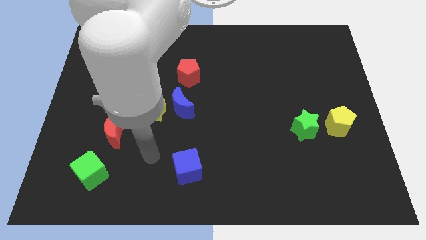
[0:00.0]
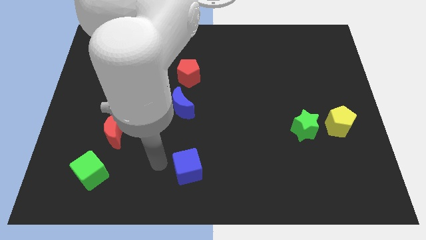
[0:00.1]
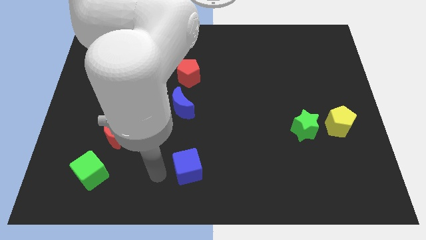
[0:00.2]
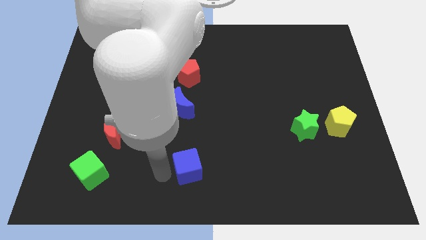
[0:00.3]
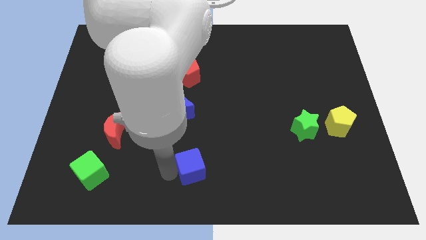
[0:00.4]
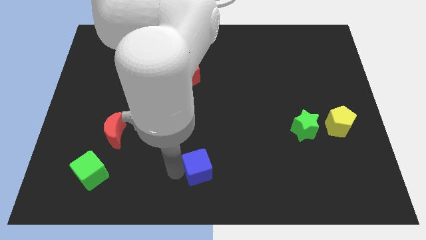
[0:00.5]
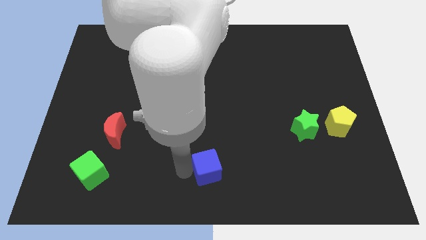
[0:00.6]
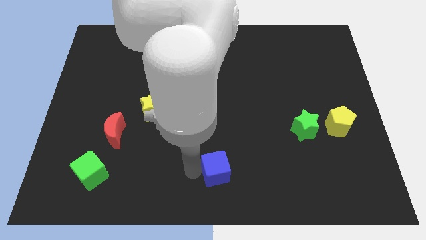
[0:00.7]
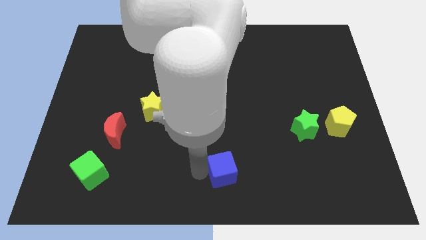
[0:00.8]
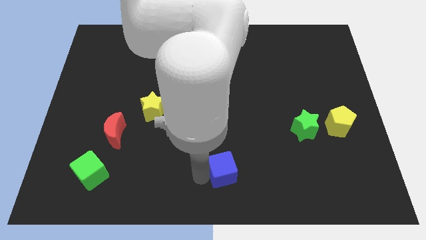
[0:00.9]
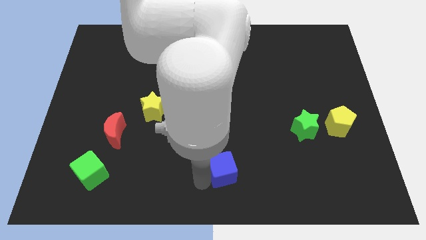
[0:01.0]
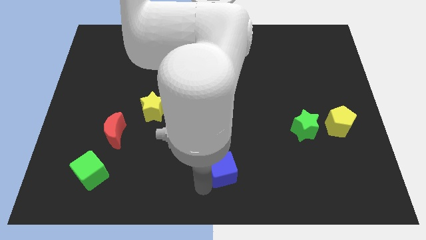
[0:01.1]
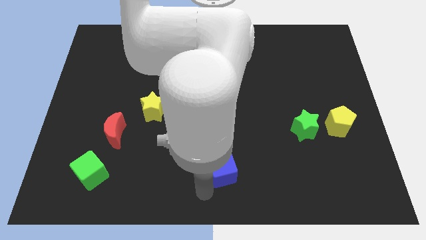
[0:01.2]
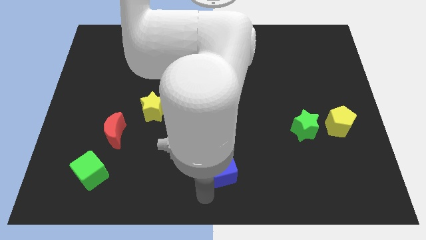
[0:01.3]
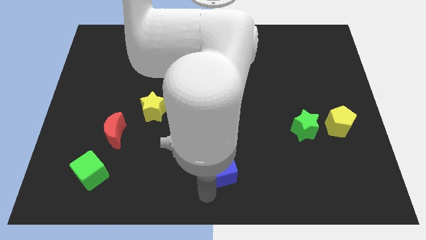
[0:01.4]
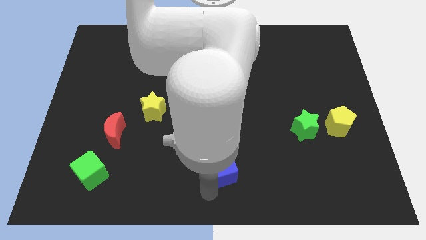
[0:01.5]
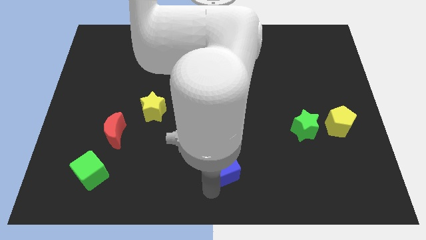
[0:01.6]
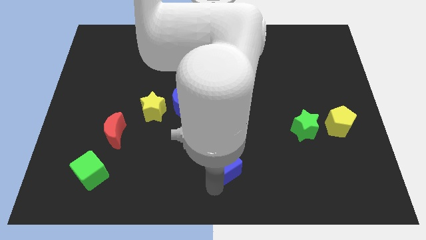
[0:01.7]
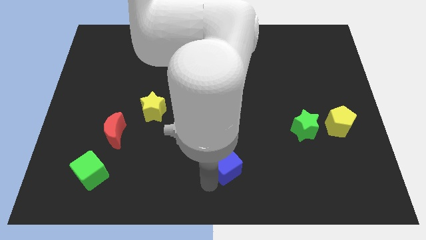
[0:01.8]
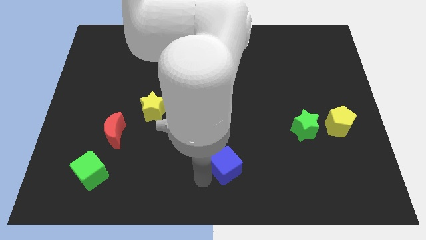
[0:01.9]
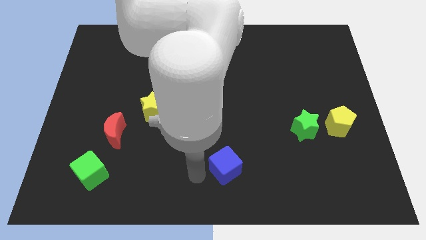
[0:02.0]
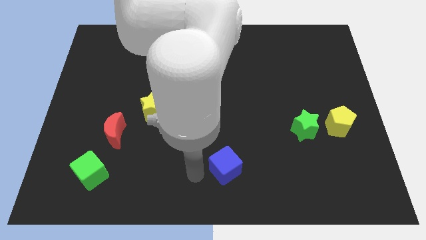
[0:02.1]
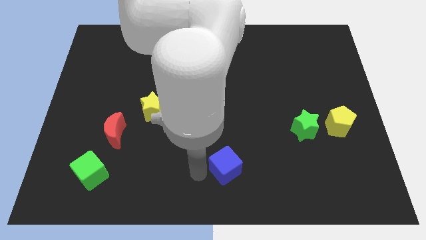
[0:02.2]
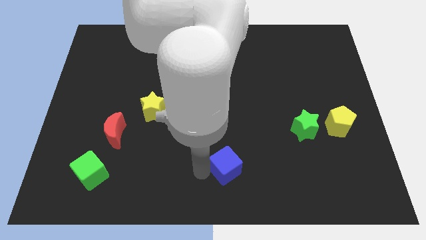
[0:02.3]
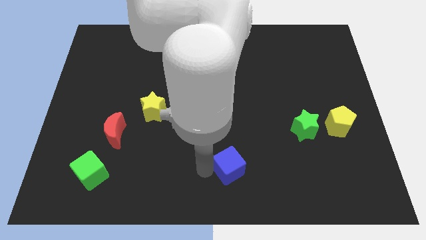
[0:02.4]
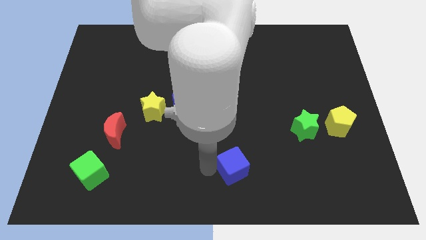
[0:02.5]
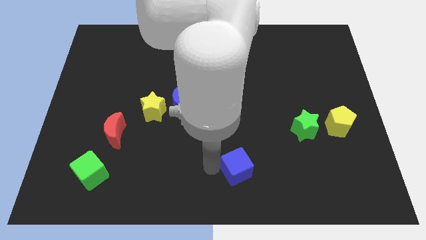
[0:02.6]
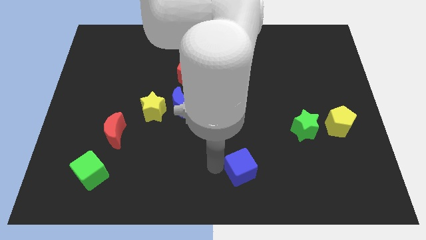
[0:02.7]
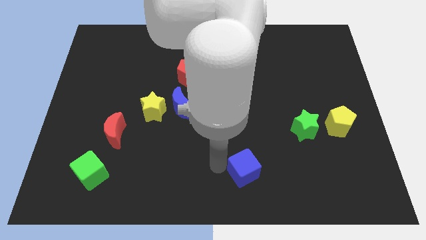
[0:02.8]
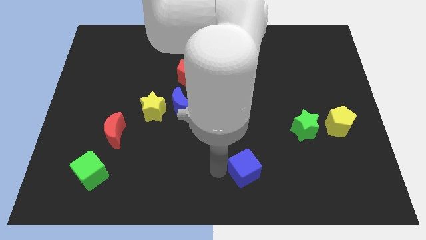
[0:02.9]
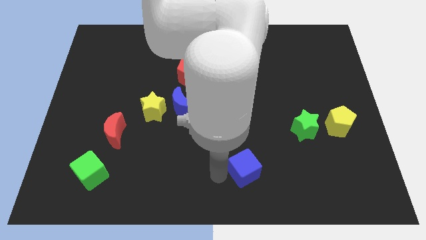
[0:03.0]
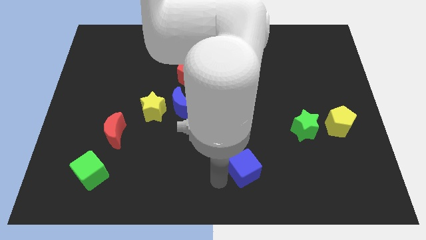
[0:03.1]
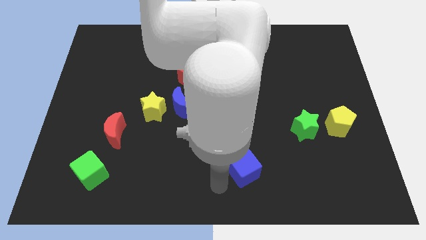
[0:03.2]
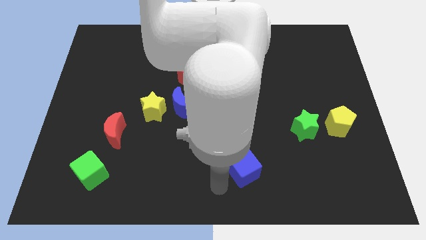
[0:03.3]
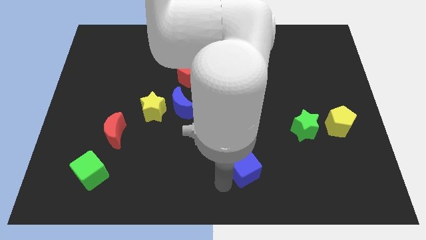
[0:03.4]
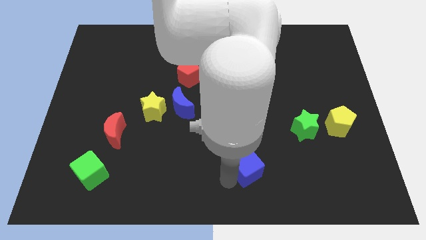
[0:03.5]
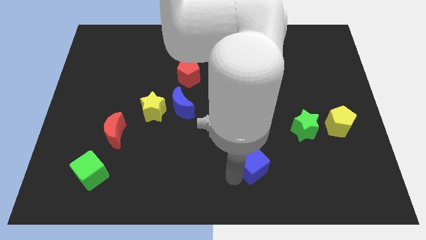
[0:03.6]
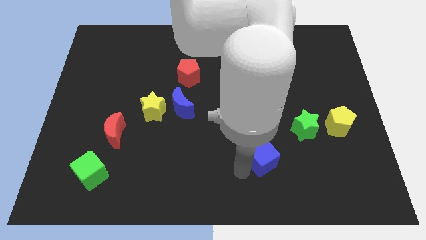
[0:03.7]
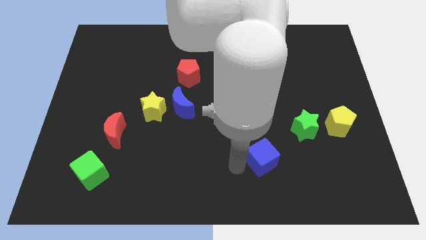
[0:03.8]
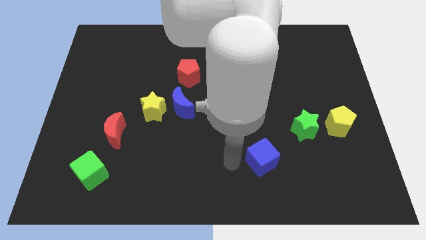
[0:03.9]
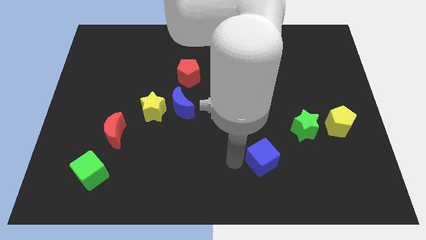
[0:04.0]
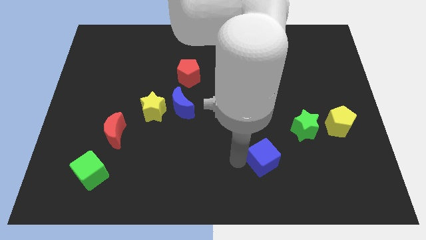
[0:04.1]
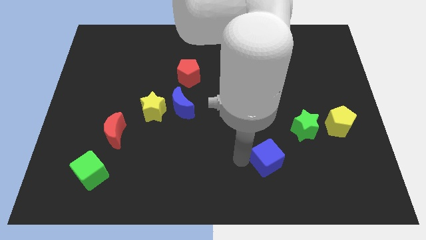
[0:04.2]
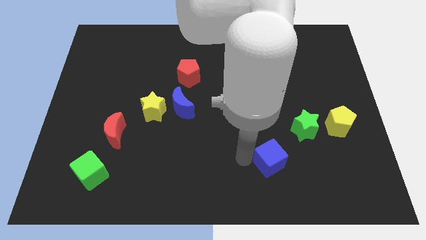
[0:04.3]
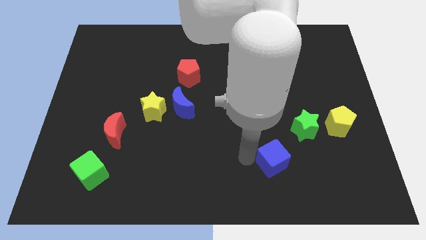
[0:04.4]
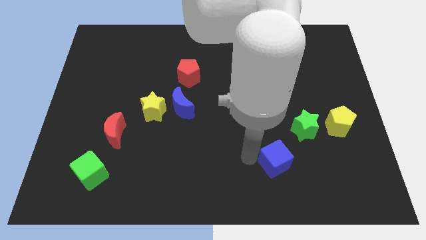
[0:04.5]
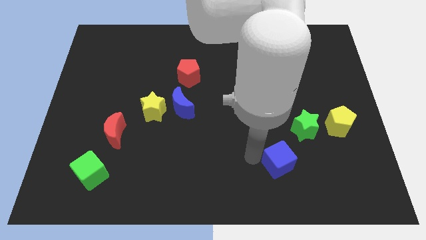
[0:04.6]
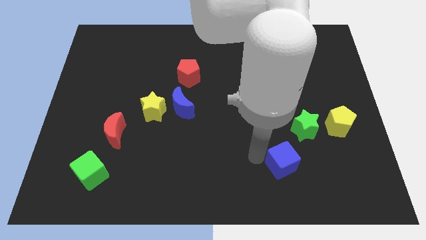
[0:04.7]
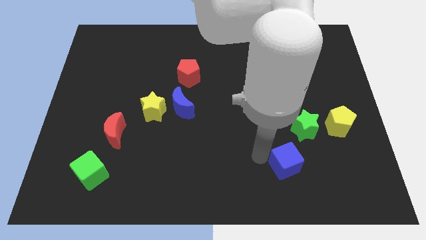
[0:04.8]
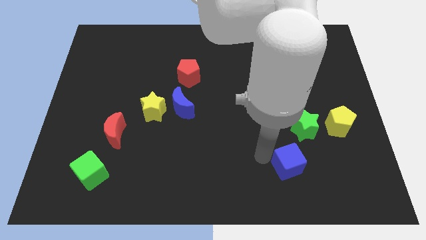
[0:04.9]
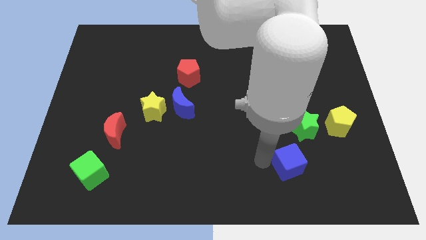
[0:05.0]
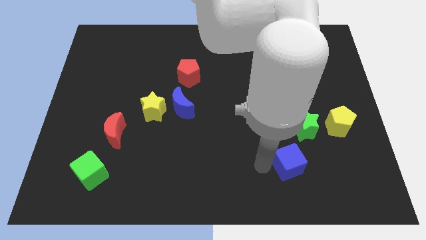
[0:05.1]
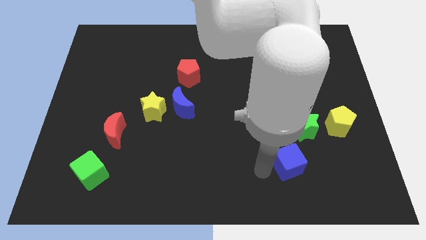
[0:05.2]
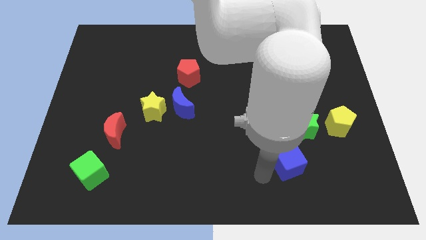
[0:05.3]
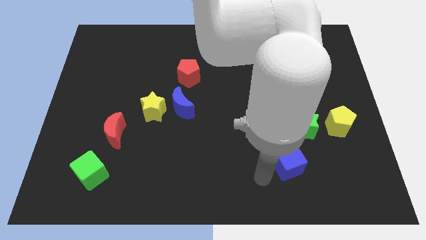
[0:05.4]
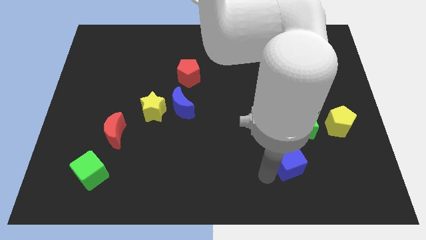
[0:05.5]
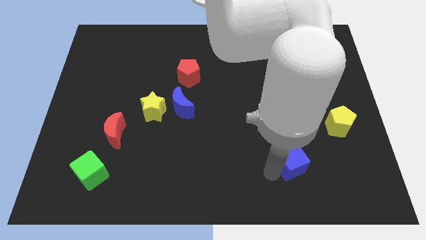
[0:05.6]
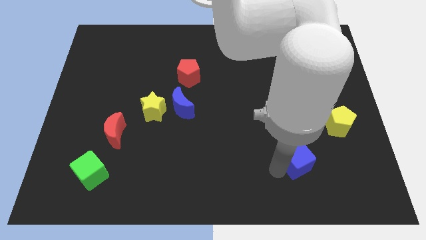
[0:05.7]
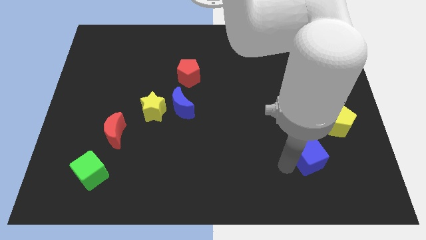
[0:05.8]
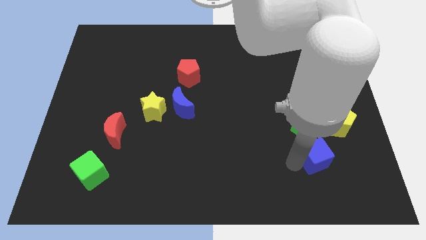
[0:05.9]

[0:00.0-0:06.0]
move the blue cube diagonally down and to the right of the green star

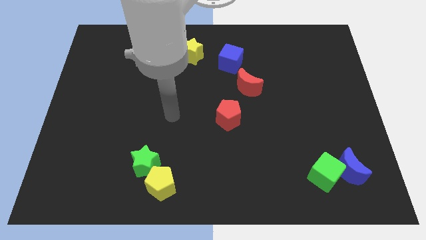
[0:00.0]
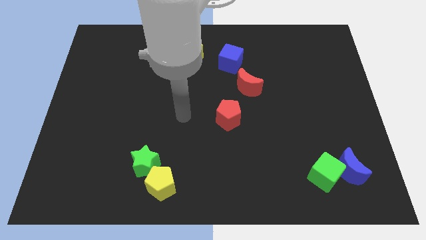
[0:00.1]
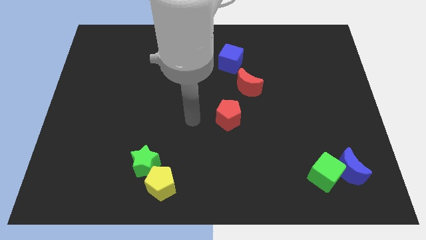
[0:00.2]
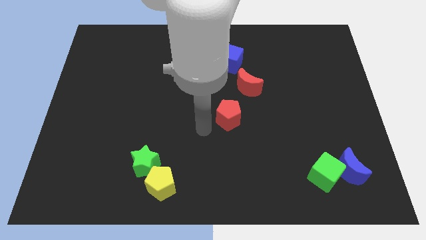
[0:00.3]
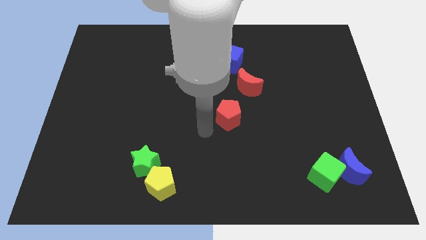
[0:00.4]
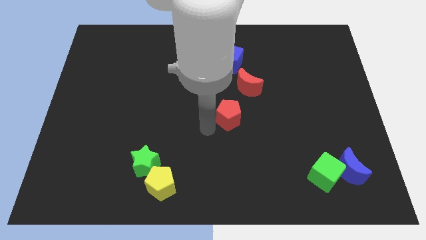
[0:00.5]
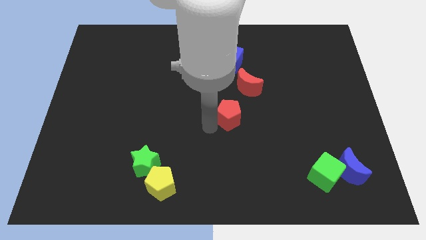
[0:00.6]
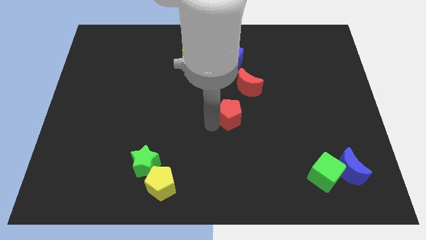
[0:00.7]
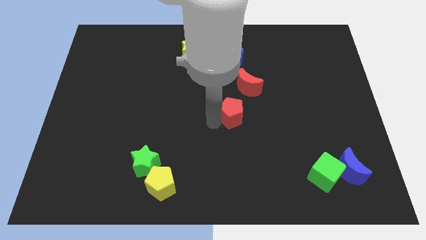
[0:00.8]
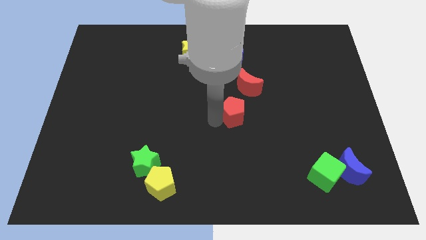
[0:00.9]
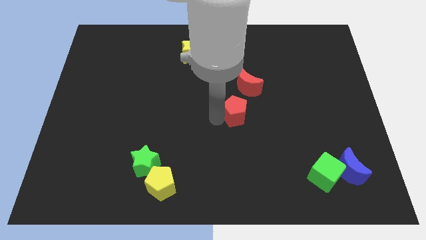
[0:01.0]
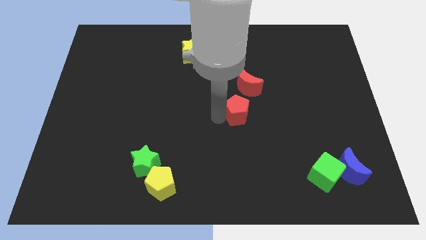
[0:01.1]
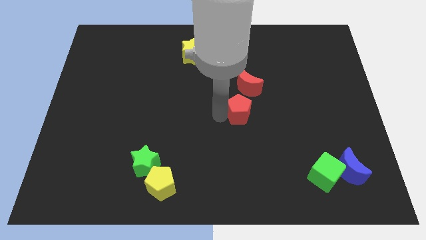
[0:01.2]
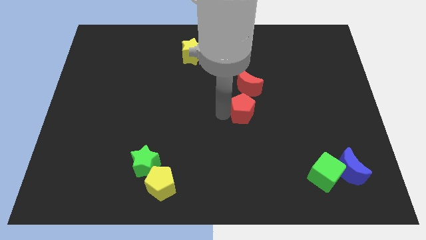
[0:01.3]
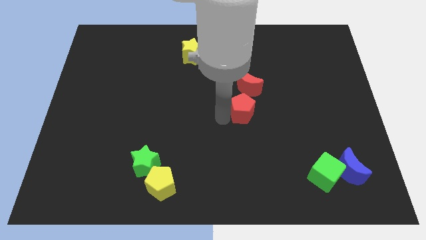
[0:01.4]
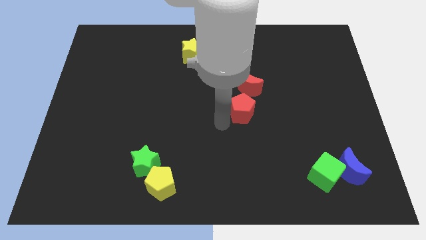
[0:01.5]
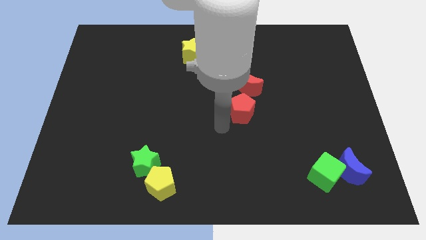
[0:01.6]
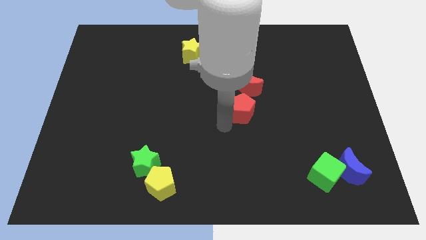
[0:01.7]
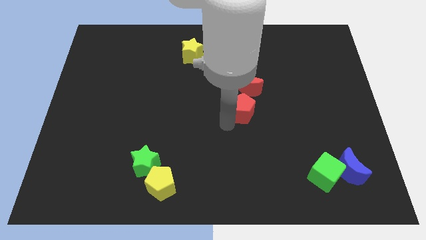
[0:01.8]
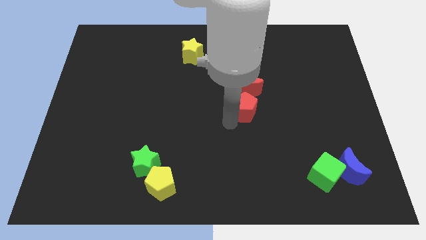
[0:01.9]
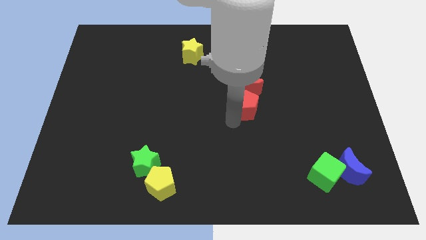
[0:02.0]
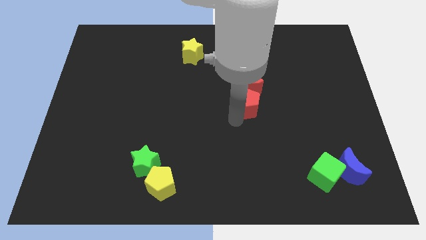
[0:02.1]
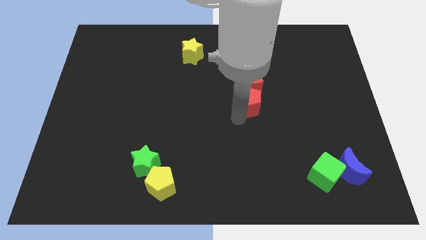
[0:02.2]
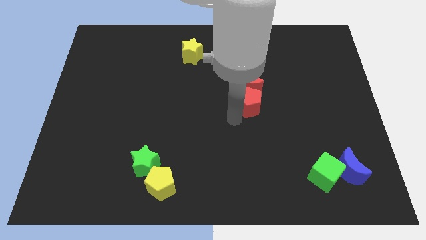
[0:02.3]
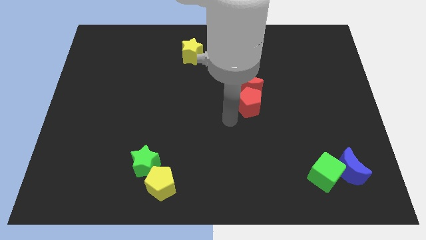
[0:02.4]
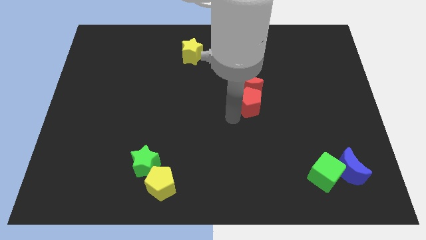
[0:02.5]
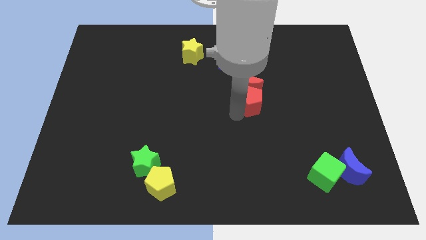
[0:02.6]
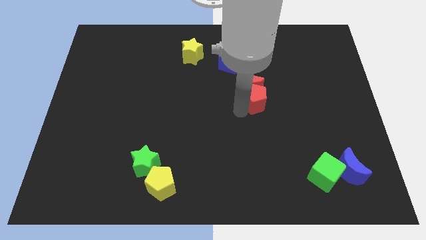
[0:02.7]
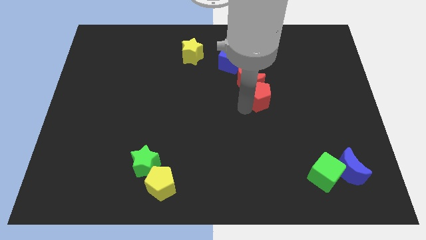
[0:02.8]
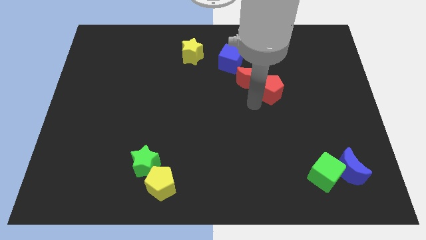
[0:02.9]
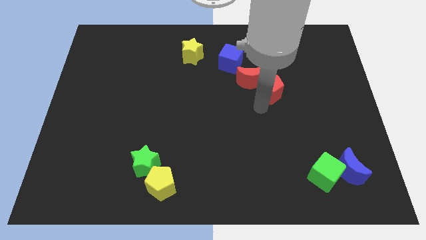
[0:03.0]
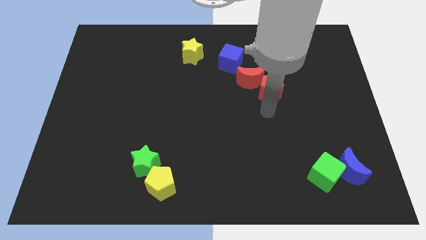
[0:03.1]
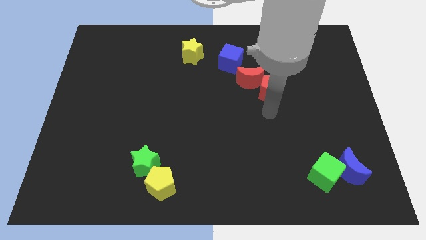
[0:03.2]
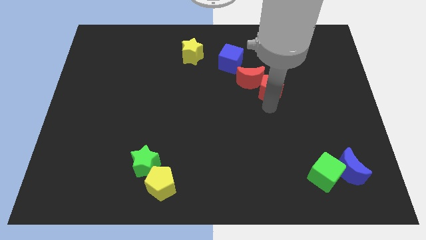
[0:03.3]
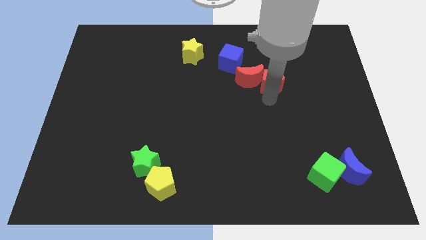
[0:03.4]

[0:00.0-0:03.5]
move the red pentagon to the top right side of the red moon
